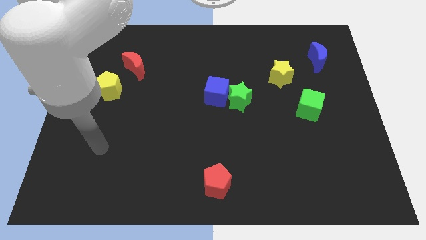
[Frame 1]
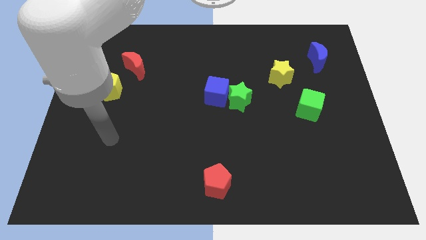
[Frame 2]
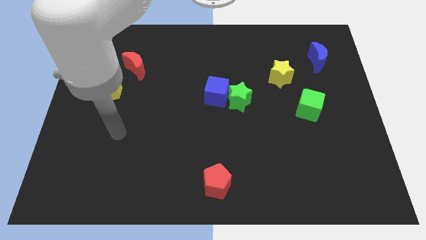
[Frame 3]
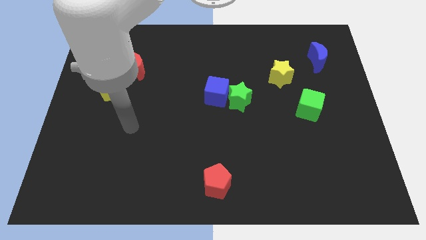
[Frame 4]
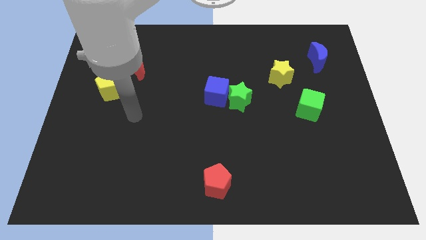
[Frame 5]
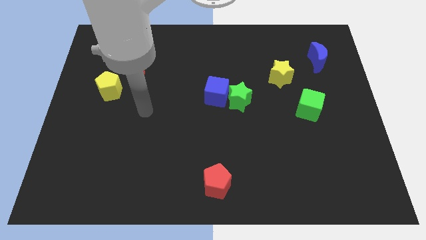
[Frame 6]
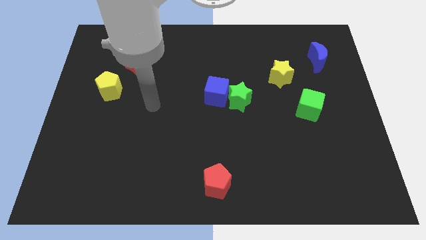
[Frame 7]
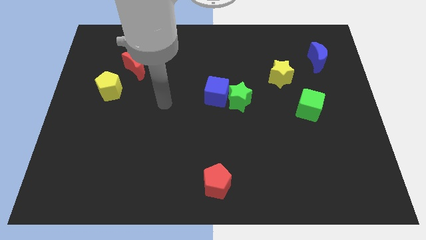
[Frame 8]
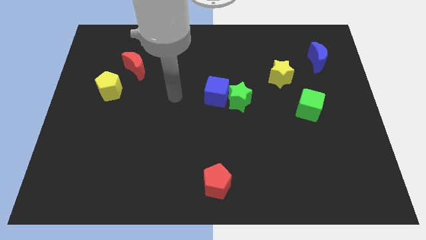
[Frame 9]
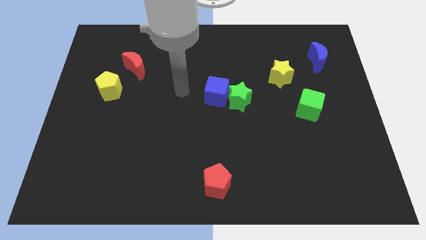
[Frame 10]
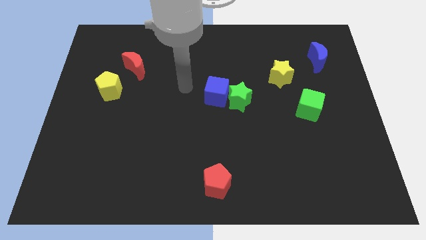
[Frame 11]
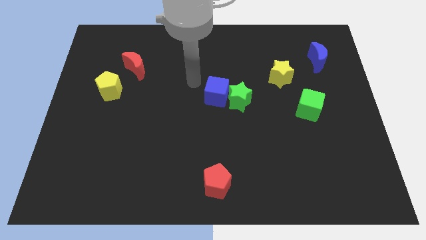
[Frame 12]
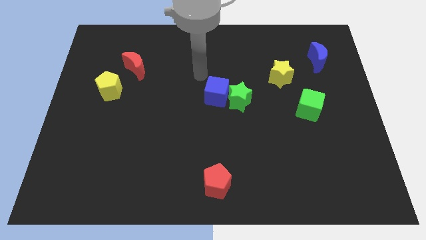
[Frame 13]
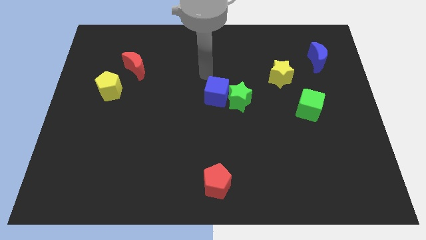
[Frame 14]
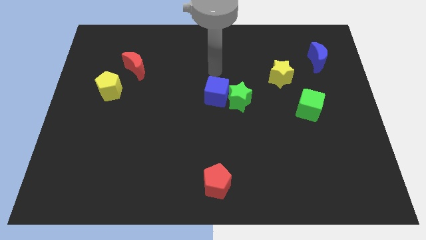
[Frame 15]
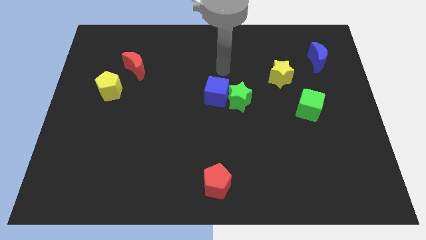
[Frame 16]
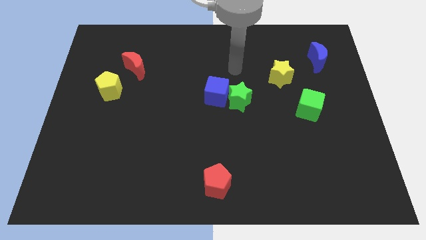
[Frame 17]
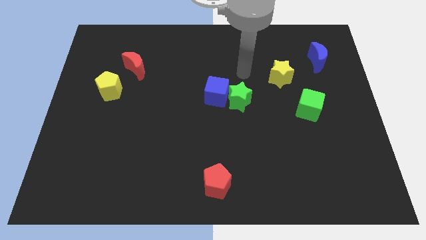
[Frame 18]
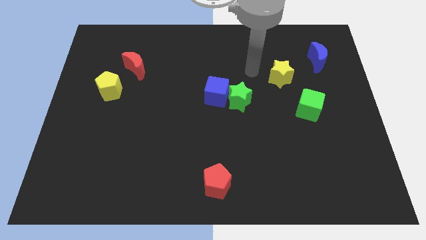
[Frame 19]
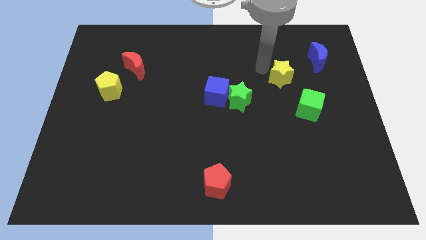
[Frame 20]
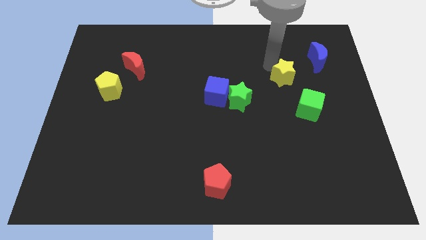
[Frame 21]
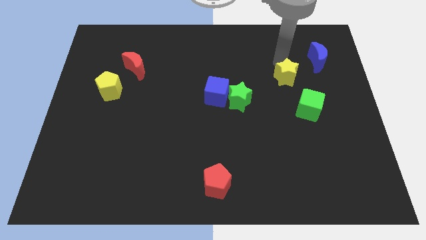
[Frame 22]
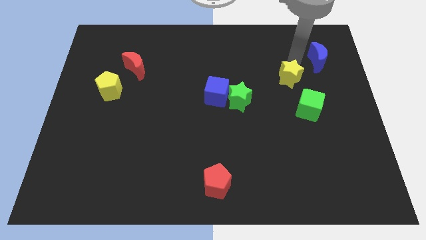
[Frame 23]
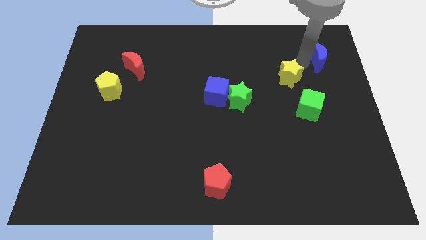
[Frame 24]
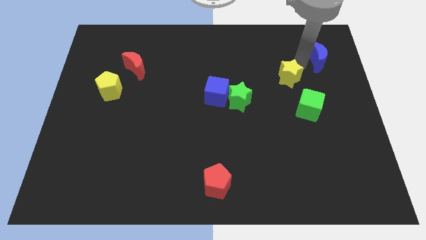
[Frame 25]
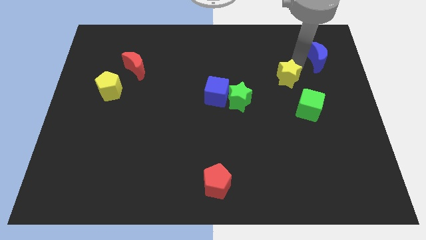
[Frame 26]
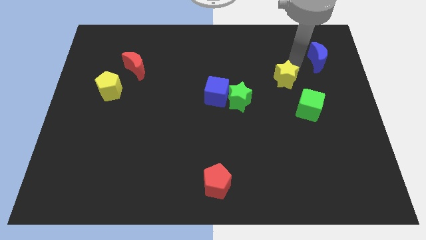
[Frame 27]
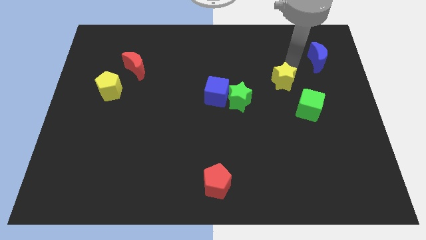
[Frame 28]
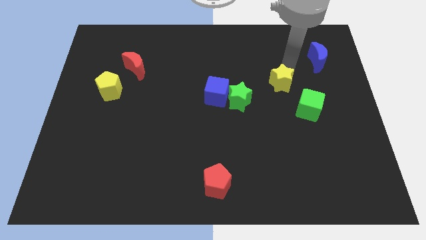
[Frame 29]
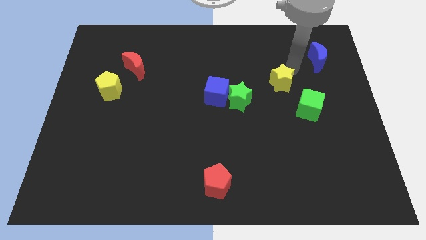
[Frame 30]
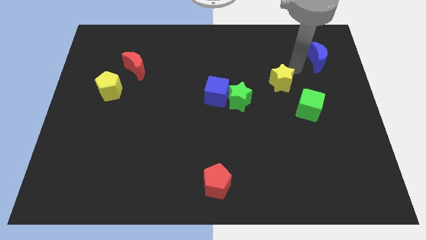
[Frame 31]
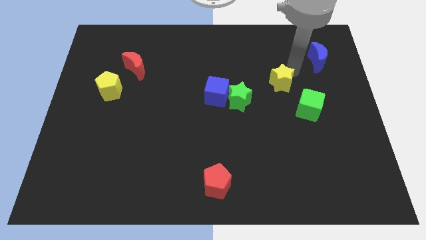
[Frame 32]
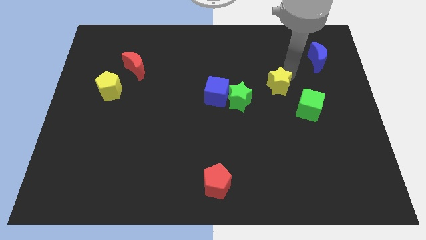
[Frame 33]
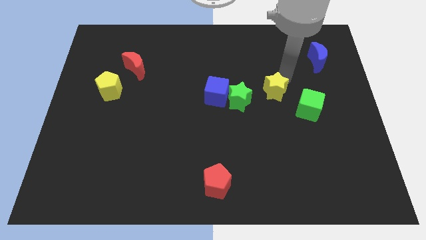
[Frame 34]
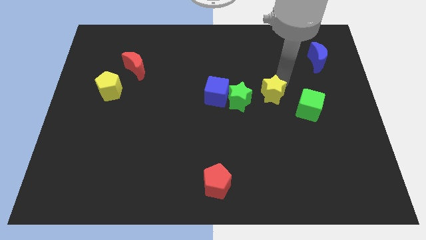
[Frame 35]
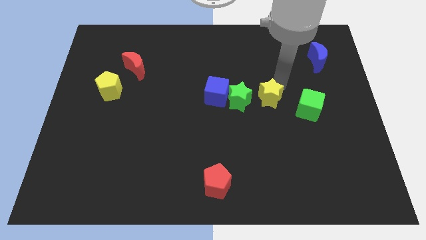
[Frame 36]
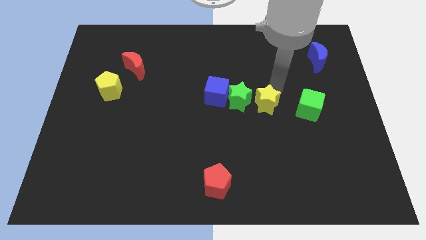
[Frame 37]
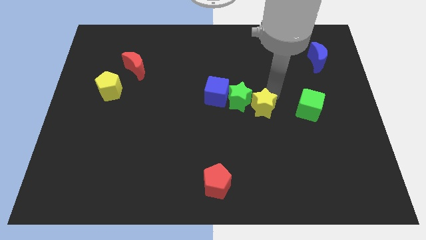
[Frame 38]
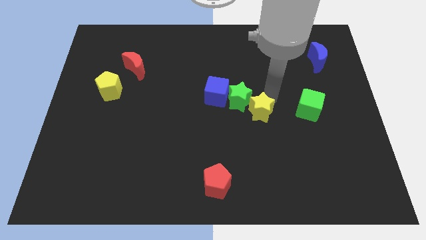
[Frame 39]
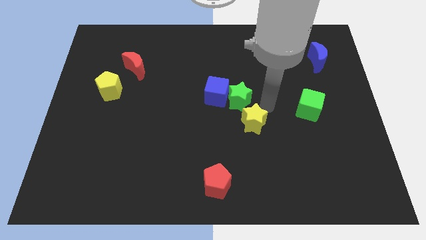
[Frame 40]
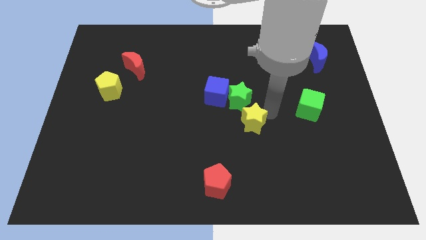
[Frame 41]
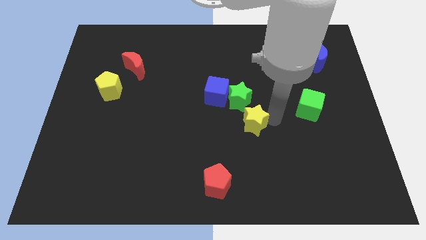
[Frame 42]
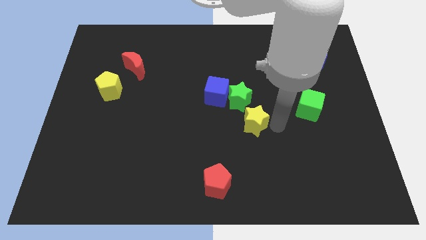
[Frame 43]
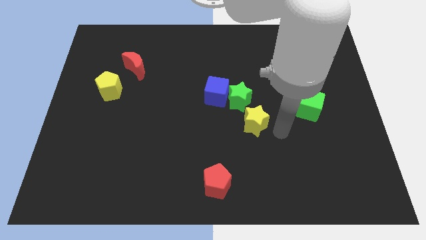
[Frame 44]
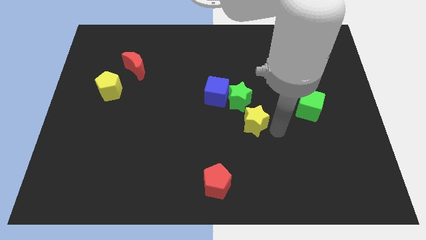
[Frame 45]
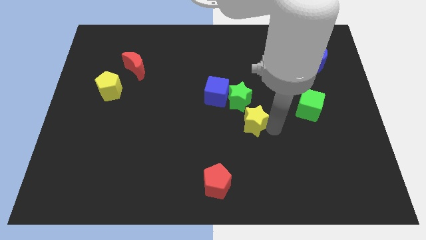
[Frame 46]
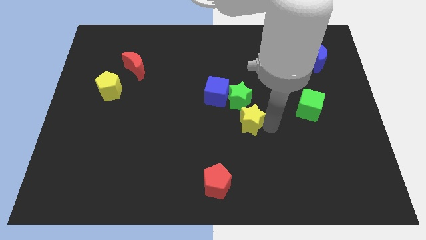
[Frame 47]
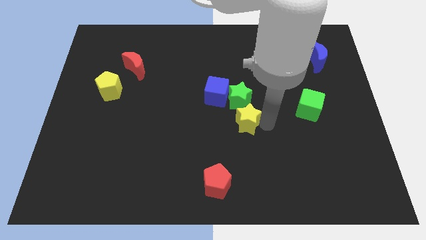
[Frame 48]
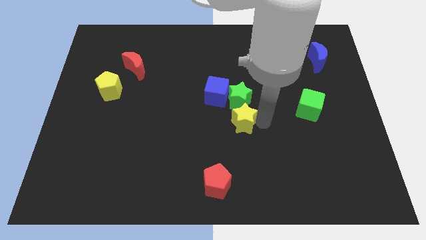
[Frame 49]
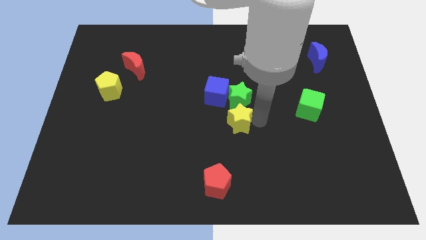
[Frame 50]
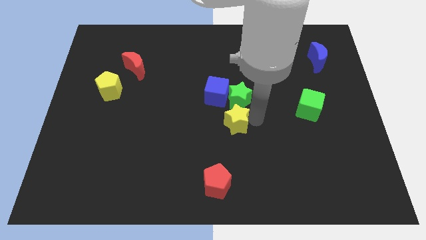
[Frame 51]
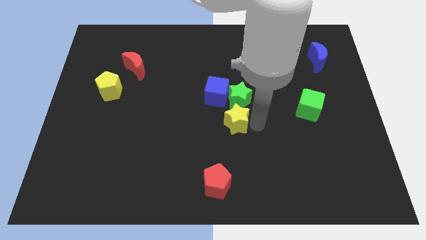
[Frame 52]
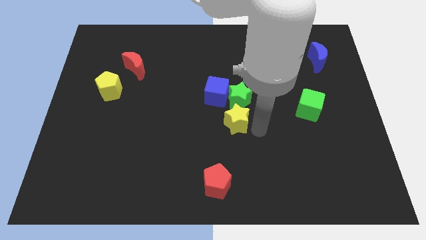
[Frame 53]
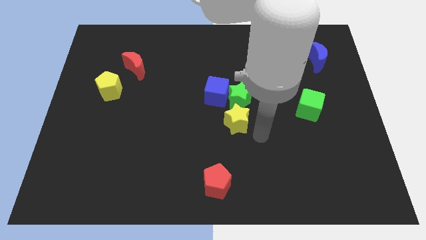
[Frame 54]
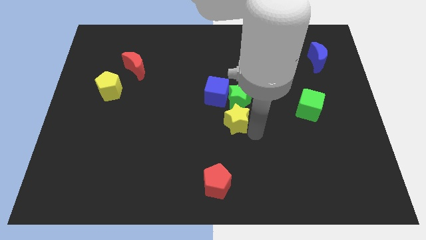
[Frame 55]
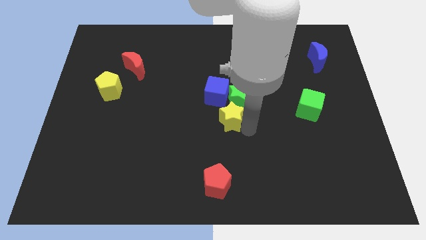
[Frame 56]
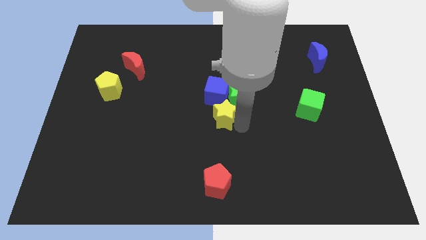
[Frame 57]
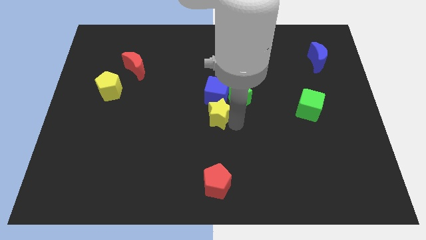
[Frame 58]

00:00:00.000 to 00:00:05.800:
slide the yellow star diagonally down and to the left of the blue cube

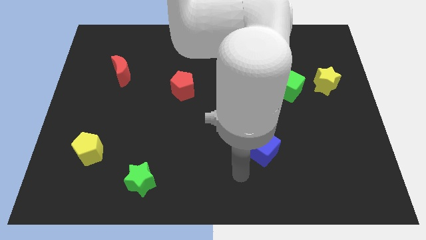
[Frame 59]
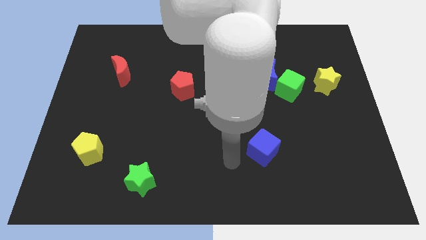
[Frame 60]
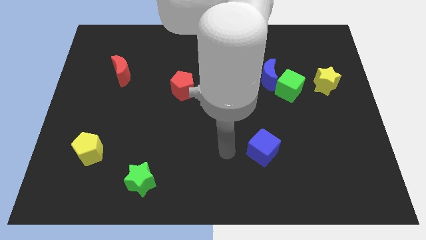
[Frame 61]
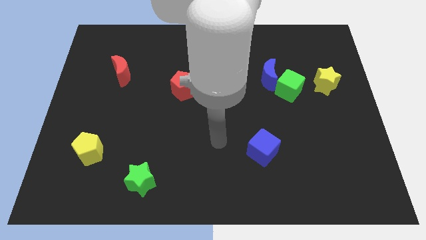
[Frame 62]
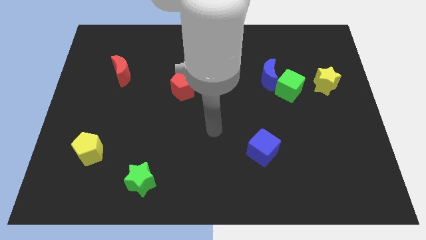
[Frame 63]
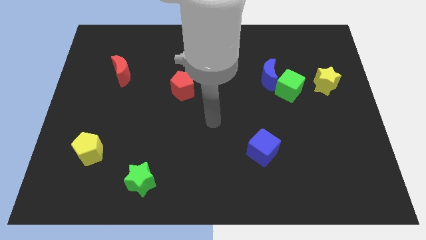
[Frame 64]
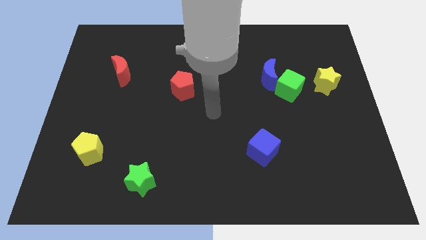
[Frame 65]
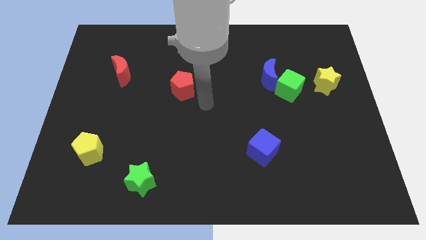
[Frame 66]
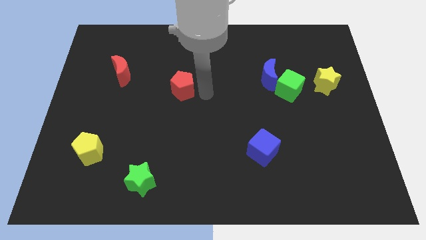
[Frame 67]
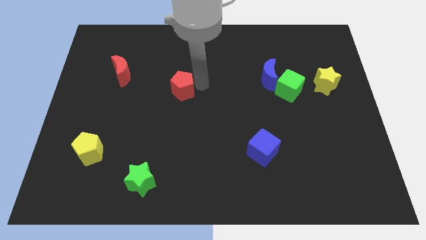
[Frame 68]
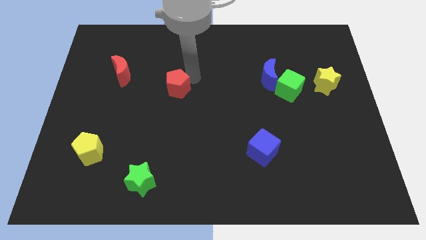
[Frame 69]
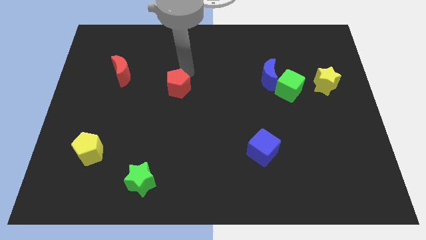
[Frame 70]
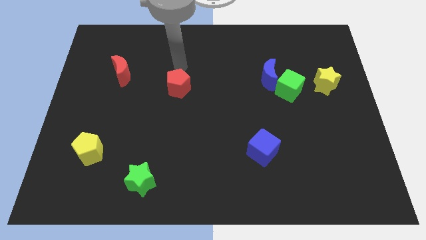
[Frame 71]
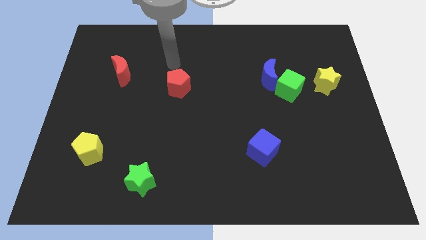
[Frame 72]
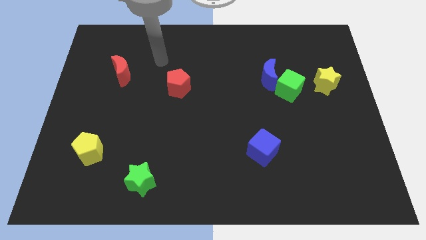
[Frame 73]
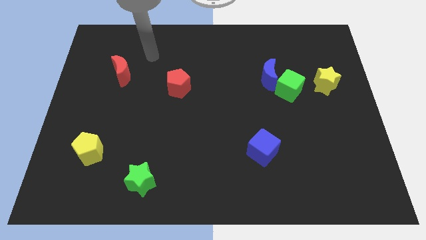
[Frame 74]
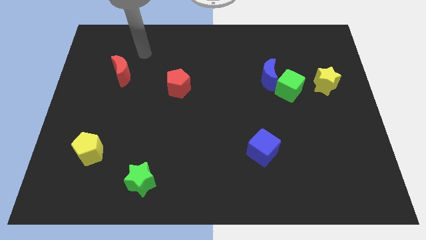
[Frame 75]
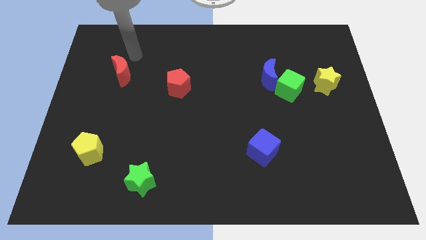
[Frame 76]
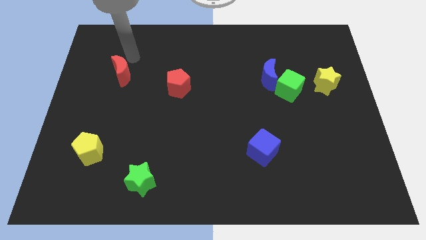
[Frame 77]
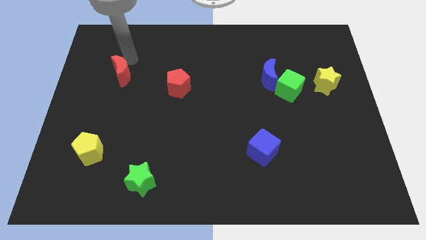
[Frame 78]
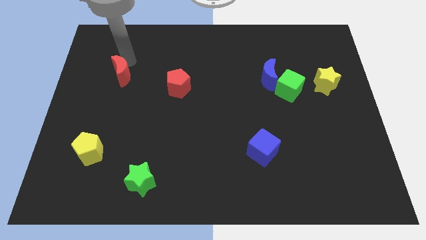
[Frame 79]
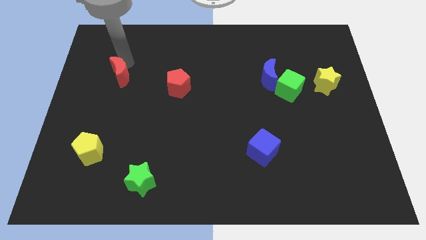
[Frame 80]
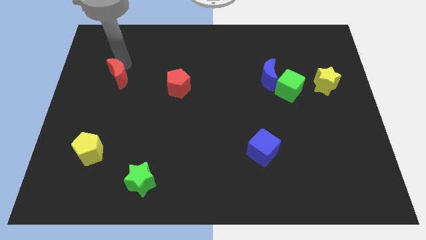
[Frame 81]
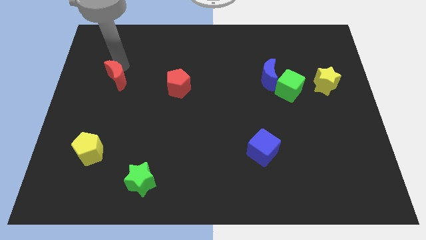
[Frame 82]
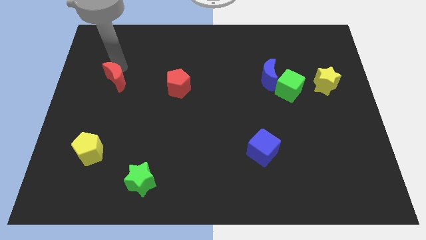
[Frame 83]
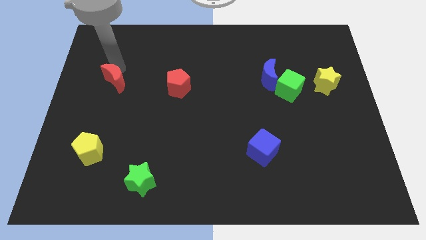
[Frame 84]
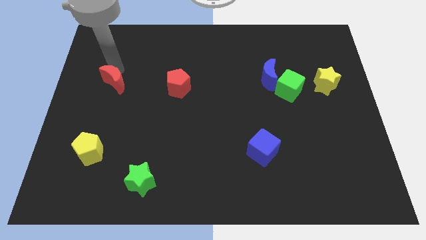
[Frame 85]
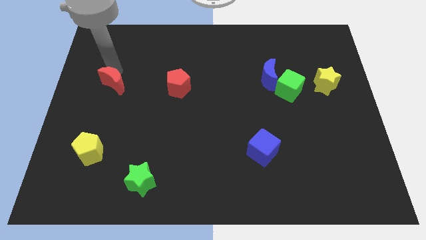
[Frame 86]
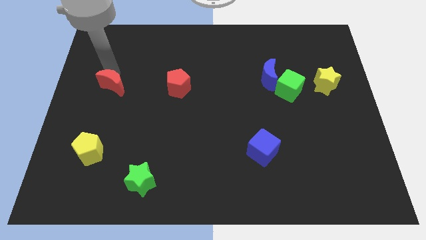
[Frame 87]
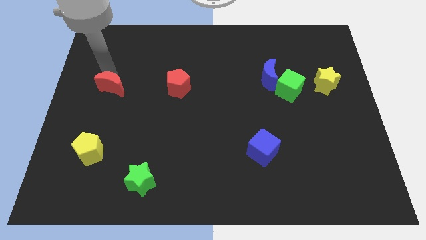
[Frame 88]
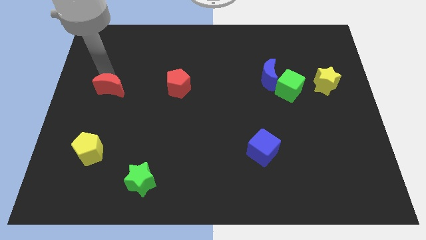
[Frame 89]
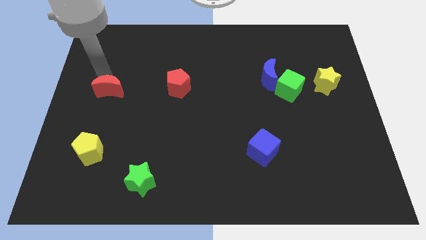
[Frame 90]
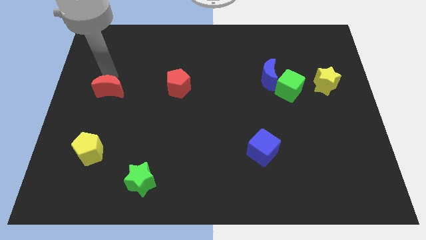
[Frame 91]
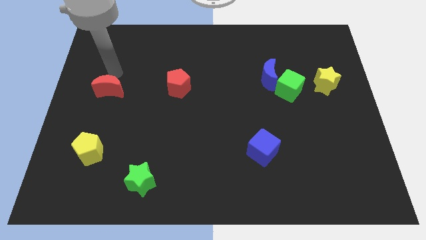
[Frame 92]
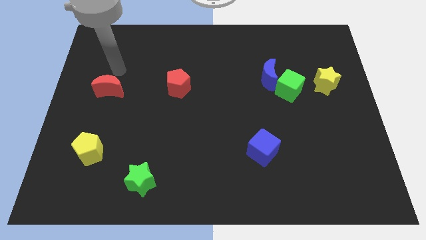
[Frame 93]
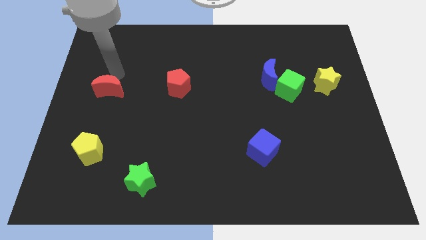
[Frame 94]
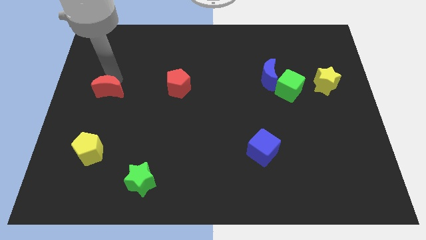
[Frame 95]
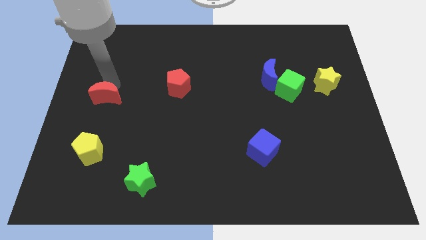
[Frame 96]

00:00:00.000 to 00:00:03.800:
put the red moon to the top side of the yellow pentagon
